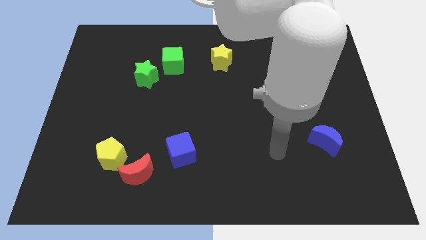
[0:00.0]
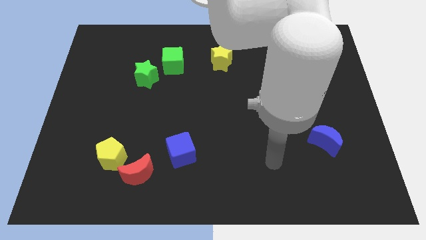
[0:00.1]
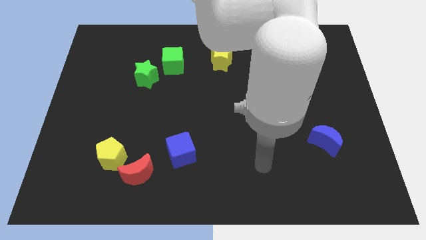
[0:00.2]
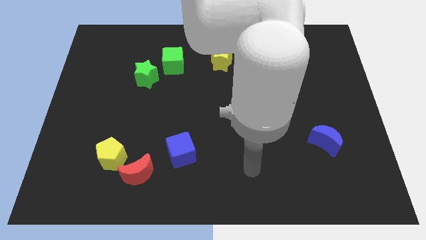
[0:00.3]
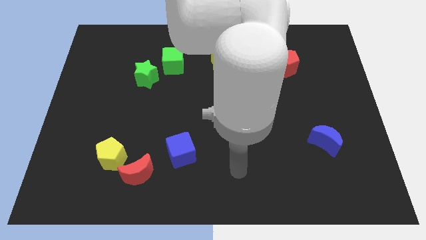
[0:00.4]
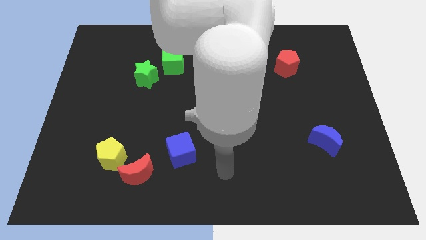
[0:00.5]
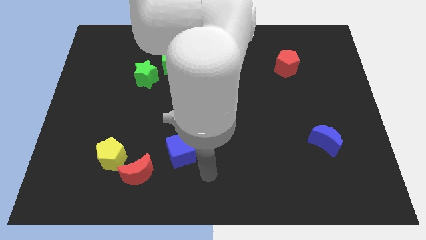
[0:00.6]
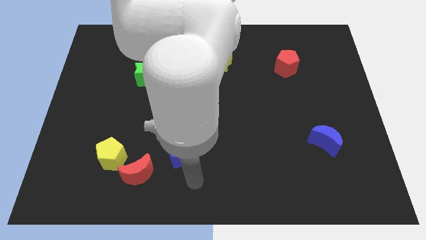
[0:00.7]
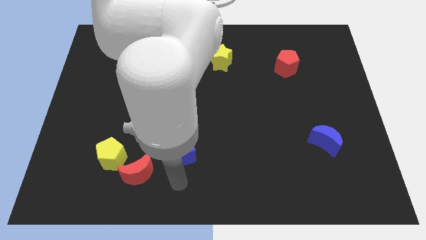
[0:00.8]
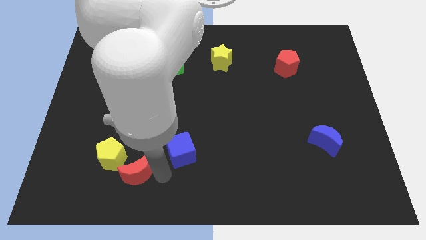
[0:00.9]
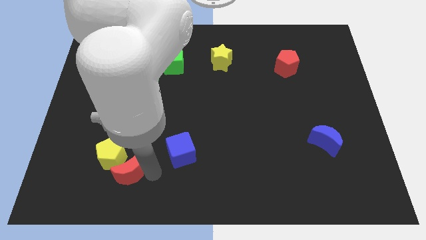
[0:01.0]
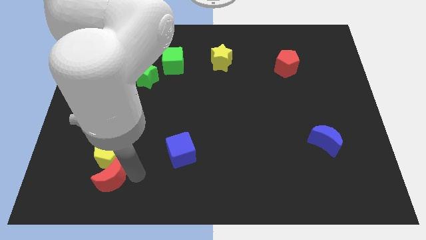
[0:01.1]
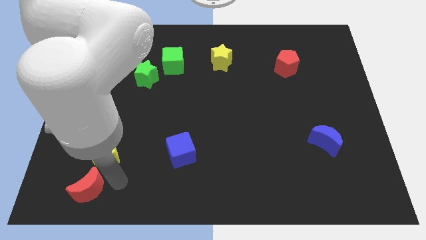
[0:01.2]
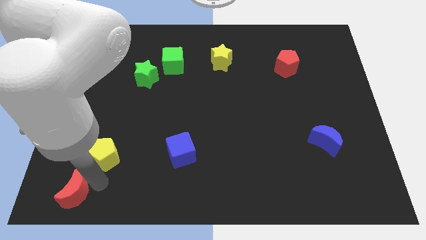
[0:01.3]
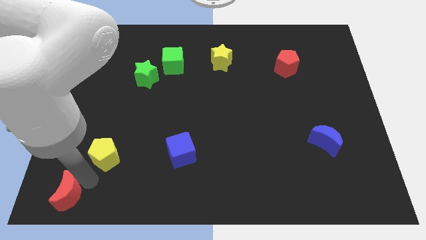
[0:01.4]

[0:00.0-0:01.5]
pull the yellow pentagon apart from the red moon

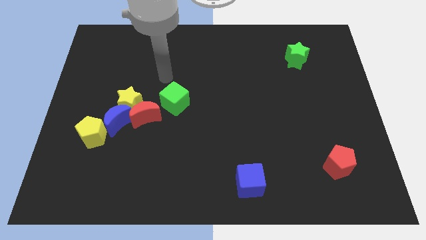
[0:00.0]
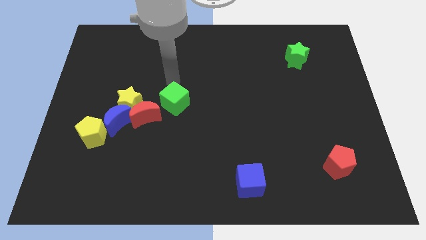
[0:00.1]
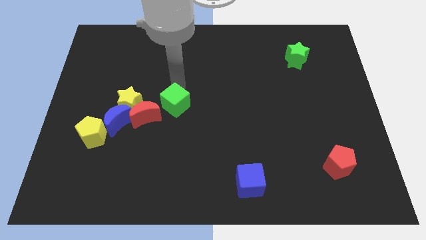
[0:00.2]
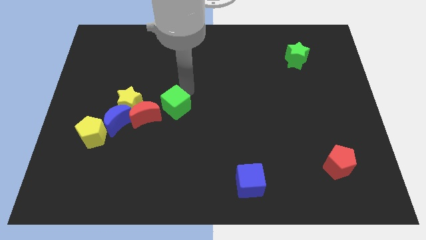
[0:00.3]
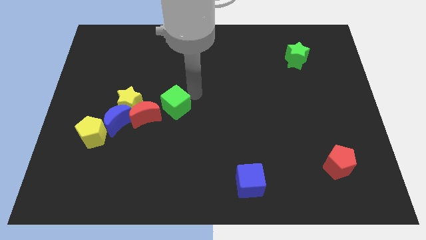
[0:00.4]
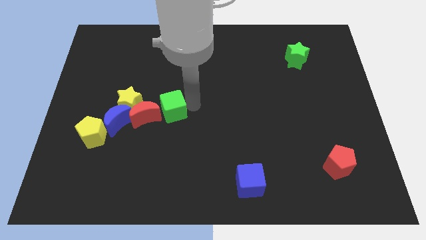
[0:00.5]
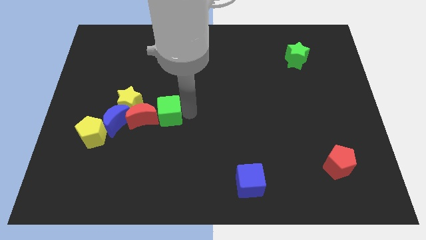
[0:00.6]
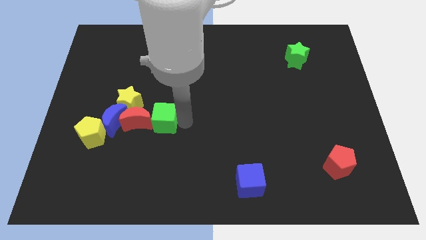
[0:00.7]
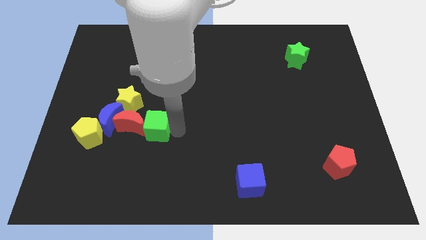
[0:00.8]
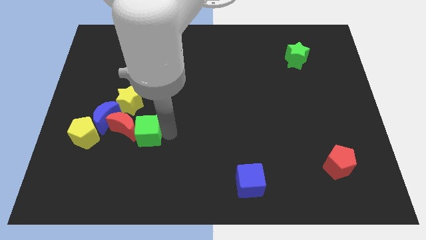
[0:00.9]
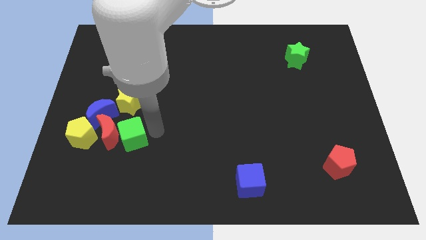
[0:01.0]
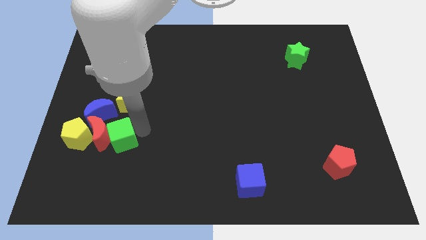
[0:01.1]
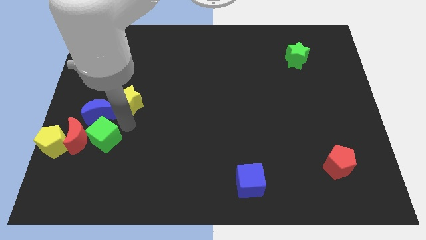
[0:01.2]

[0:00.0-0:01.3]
pull the yellow star apart from the red moon and blue moon

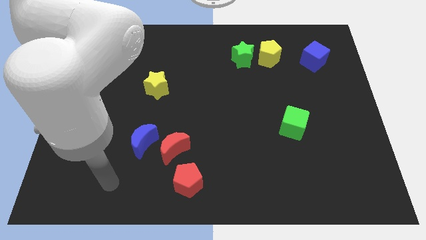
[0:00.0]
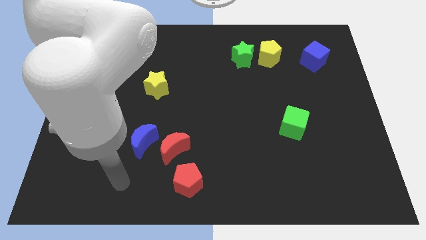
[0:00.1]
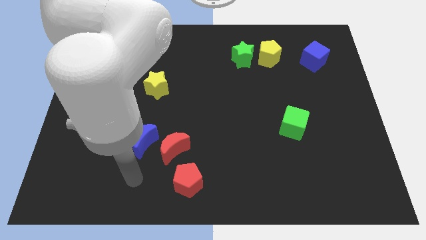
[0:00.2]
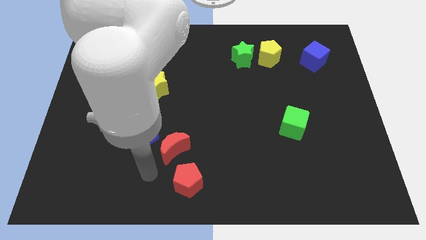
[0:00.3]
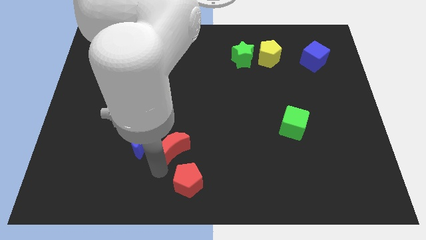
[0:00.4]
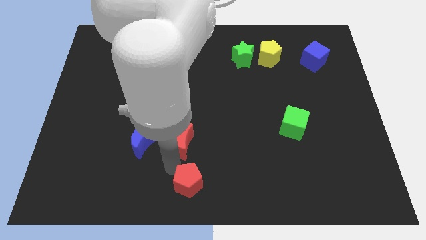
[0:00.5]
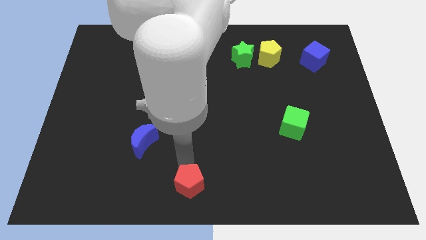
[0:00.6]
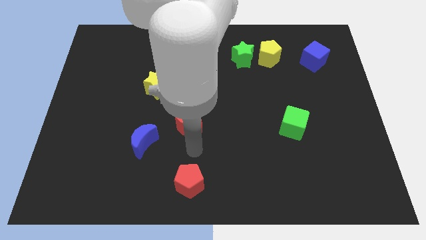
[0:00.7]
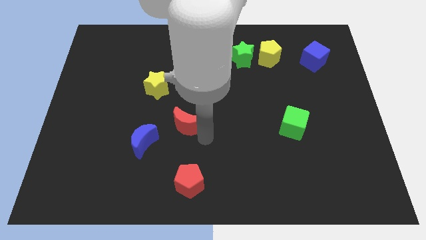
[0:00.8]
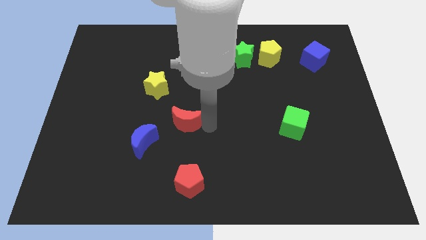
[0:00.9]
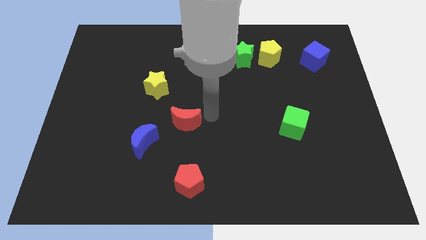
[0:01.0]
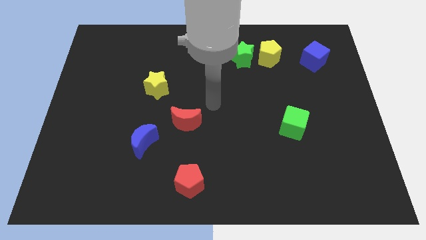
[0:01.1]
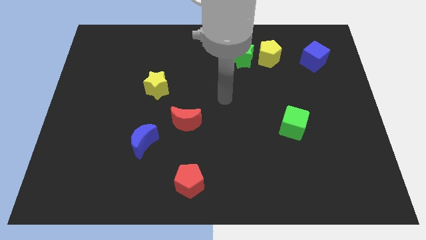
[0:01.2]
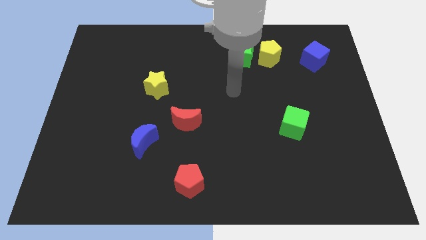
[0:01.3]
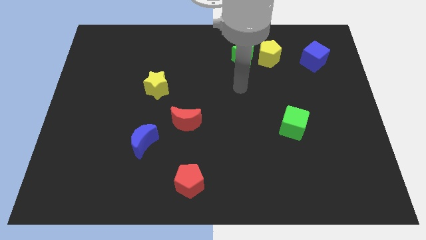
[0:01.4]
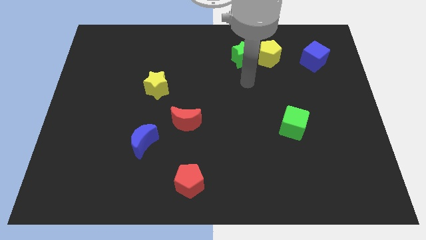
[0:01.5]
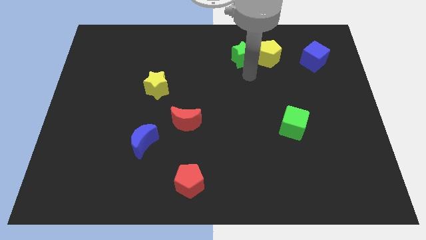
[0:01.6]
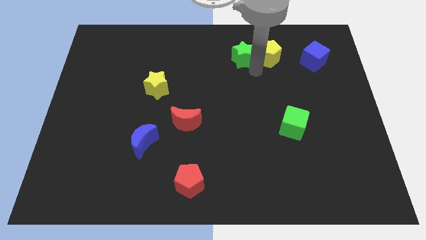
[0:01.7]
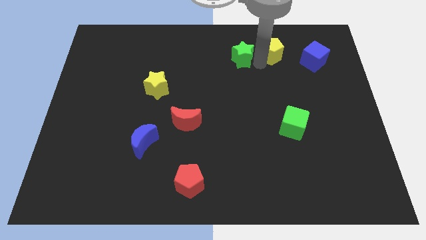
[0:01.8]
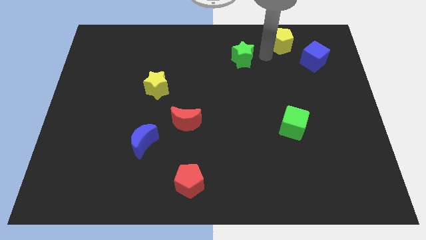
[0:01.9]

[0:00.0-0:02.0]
move the green star away from the yellow pentagon

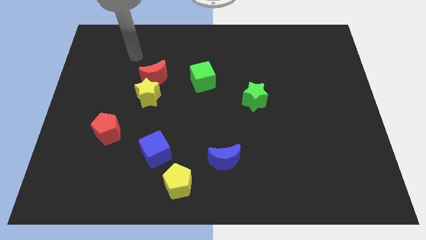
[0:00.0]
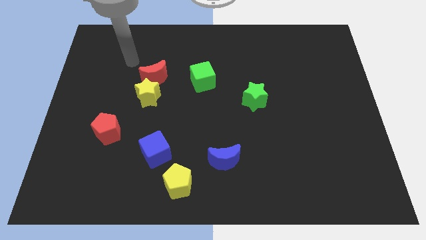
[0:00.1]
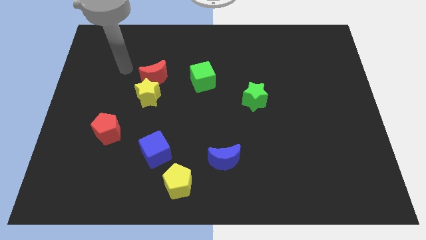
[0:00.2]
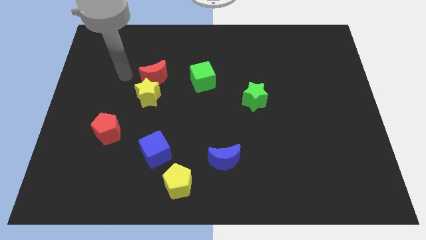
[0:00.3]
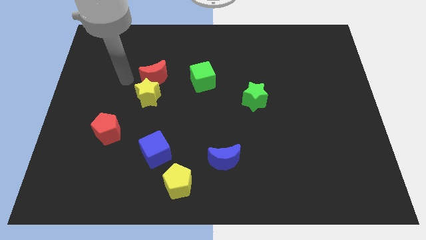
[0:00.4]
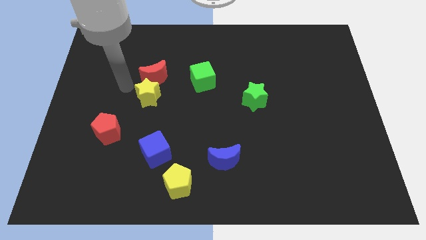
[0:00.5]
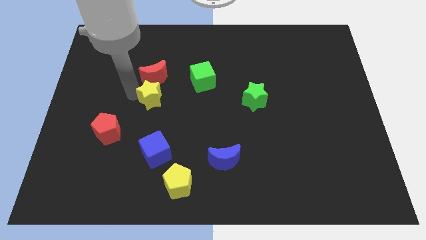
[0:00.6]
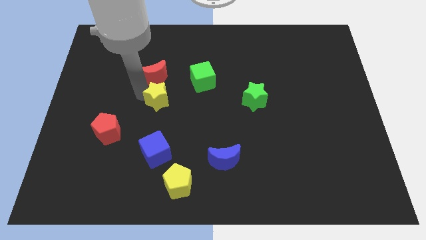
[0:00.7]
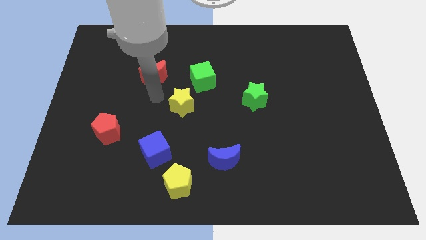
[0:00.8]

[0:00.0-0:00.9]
move the red moon away from the yellow star

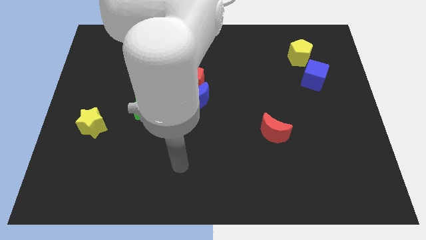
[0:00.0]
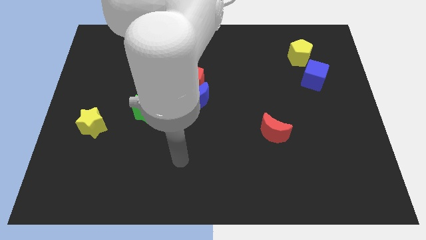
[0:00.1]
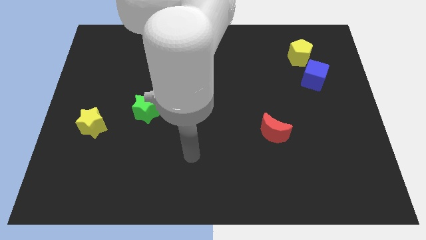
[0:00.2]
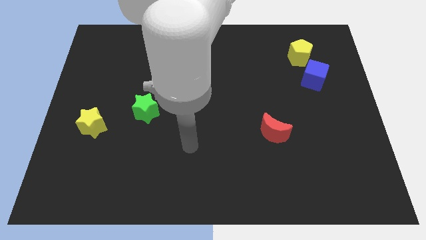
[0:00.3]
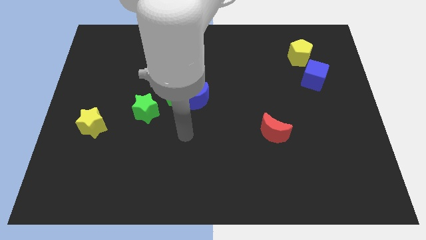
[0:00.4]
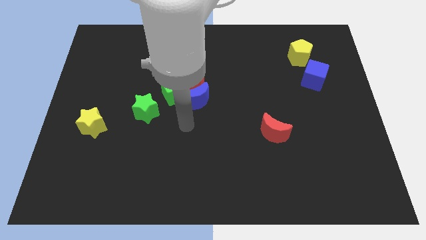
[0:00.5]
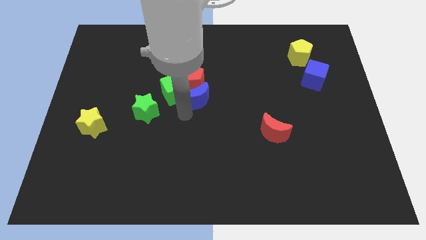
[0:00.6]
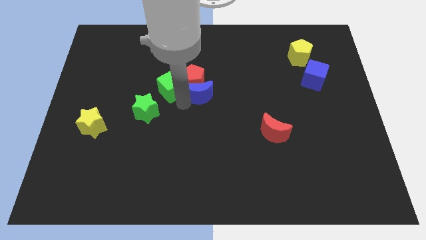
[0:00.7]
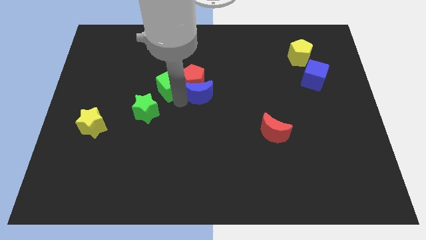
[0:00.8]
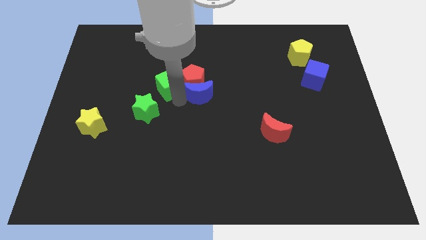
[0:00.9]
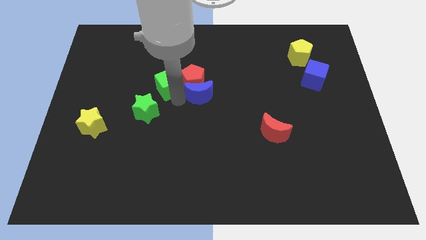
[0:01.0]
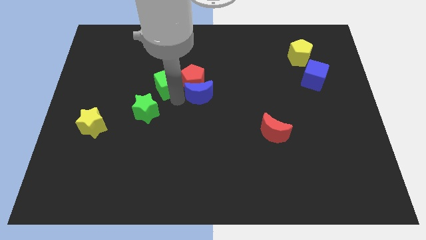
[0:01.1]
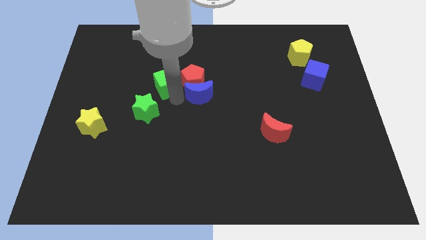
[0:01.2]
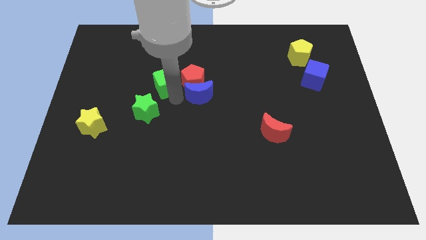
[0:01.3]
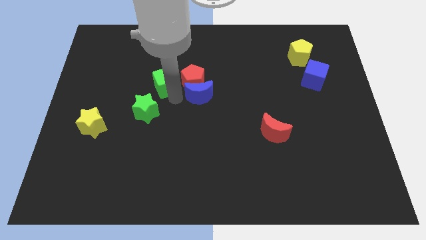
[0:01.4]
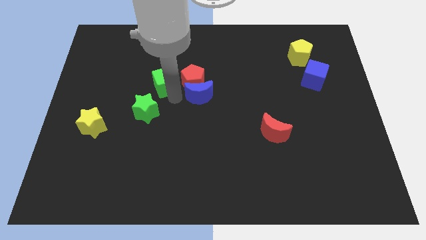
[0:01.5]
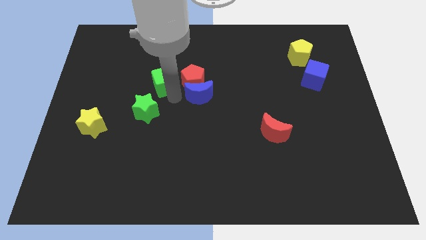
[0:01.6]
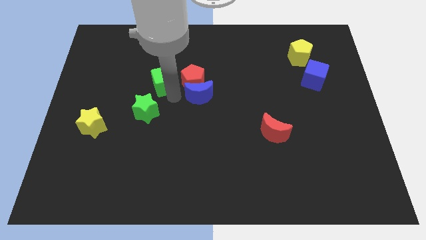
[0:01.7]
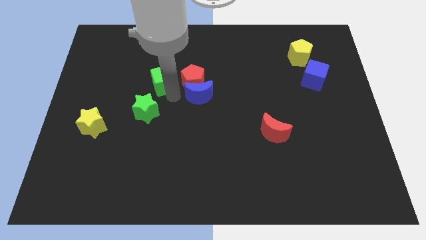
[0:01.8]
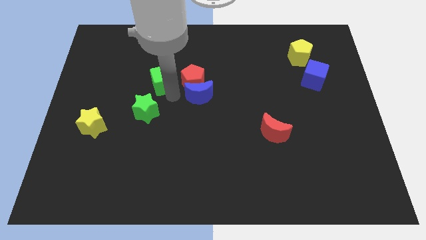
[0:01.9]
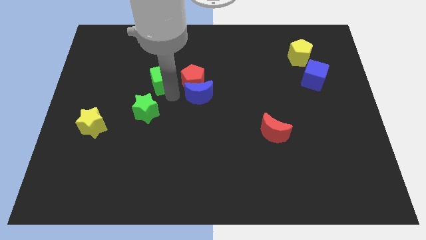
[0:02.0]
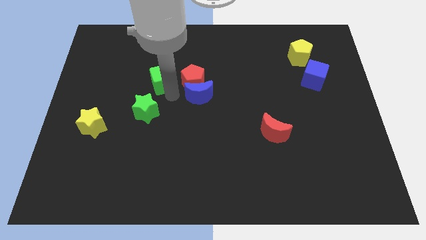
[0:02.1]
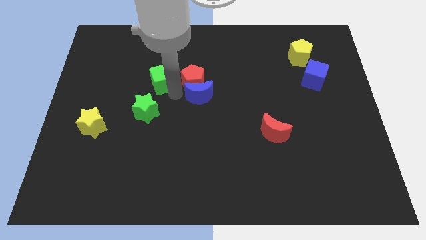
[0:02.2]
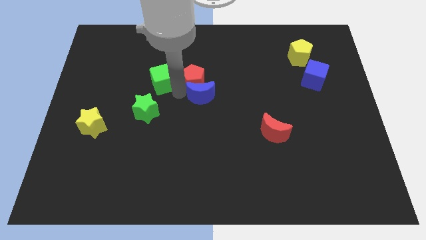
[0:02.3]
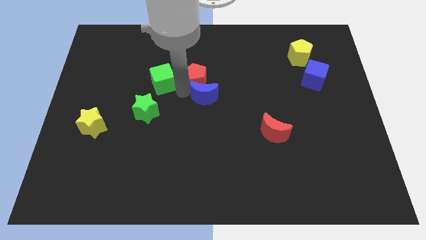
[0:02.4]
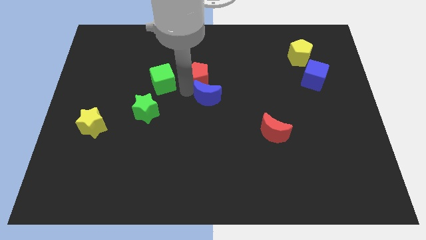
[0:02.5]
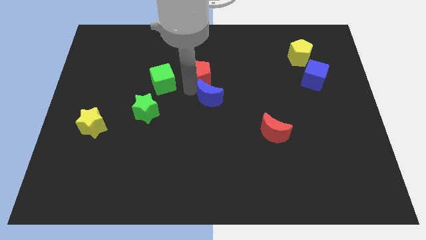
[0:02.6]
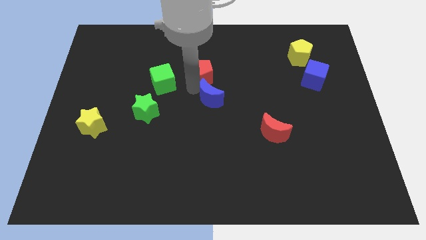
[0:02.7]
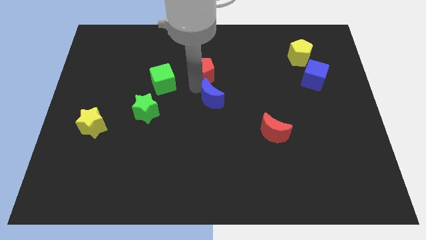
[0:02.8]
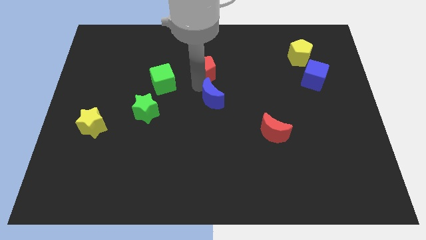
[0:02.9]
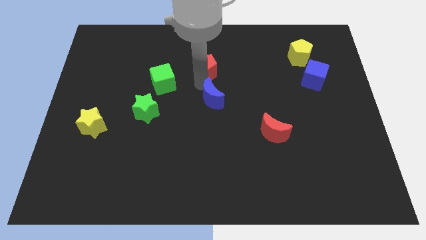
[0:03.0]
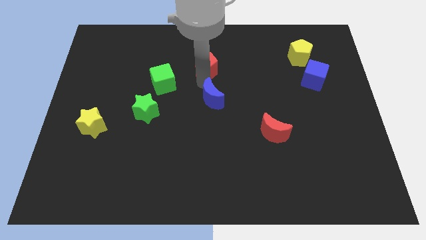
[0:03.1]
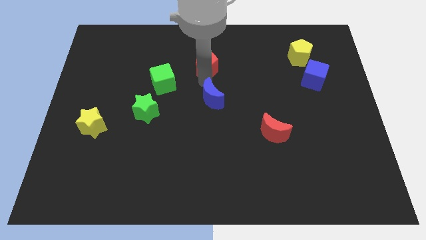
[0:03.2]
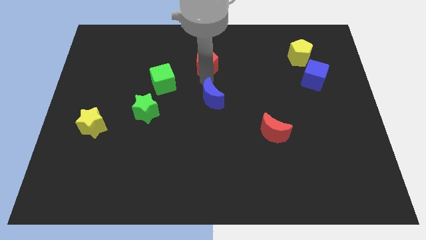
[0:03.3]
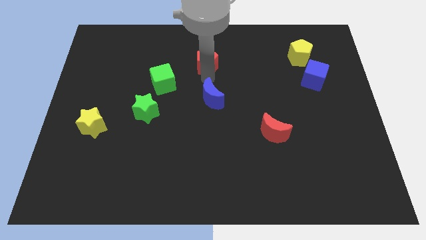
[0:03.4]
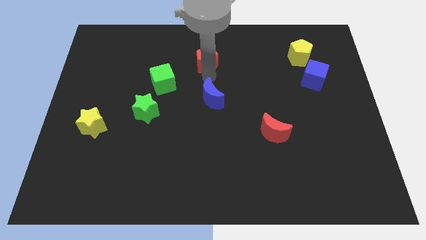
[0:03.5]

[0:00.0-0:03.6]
move the red pentagon away from the green cube and blue moon
